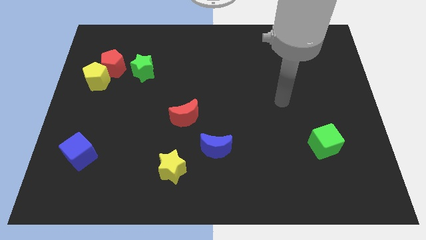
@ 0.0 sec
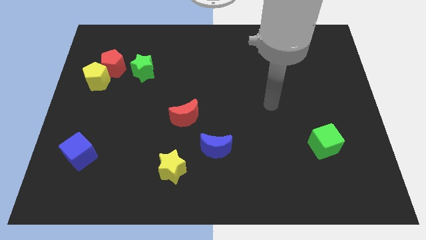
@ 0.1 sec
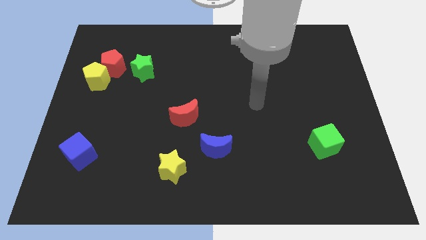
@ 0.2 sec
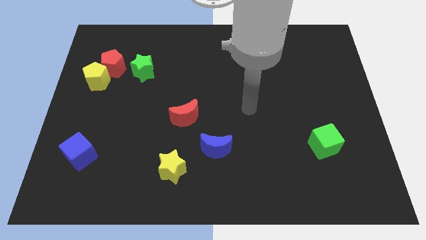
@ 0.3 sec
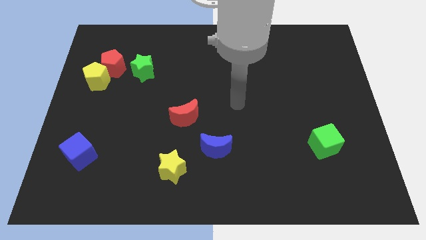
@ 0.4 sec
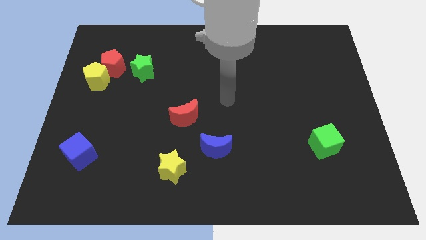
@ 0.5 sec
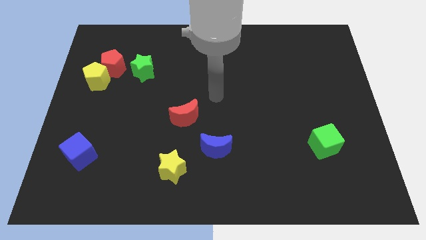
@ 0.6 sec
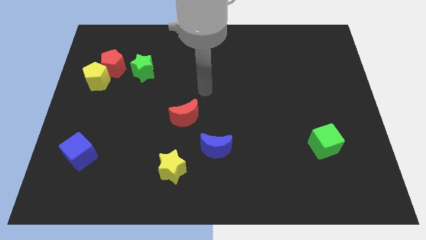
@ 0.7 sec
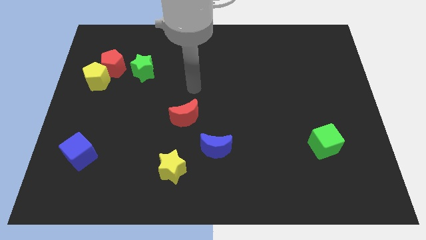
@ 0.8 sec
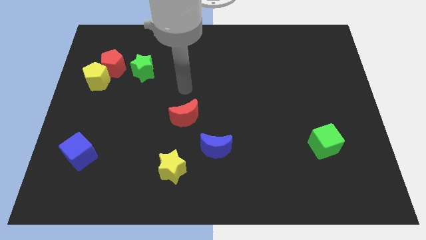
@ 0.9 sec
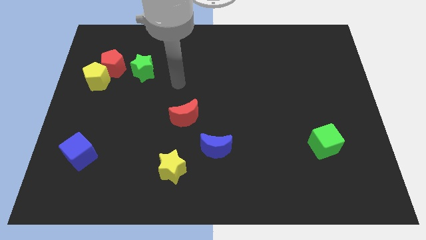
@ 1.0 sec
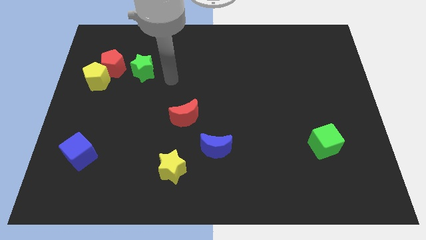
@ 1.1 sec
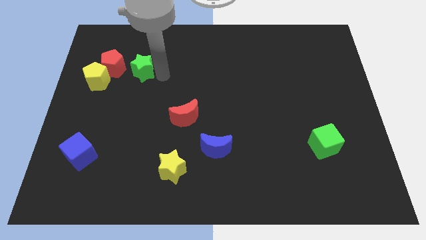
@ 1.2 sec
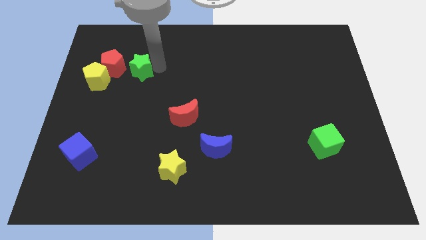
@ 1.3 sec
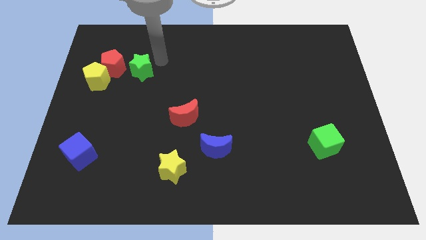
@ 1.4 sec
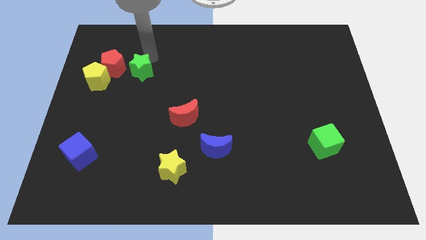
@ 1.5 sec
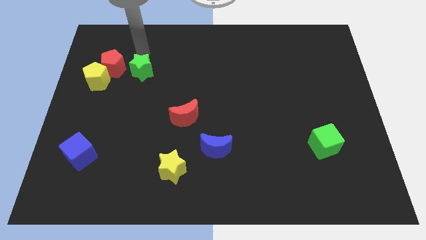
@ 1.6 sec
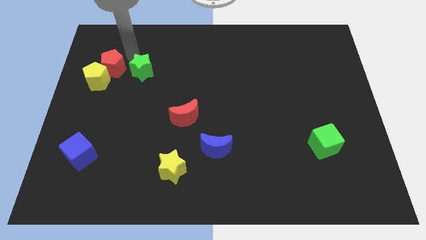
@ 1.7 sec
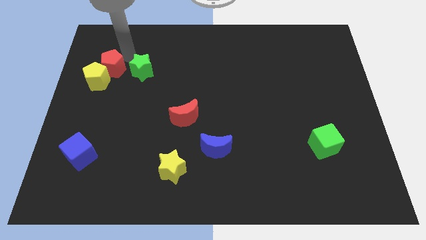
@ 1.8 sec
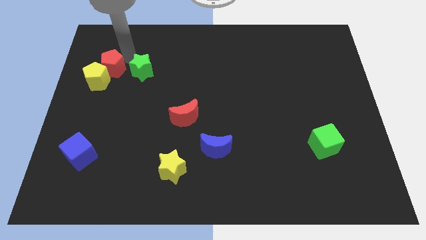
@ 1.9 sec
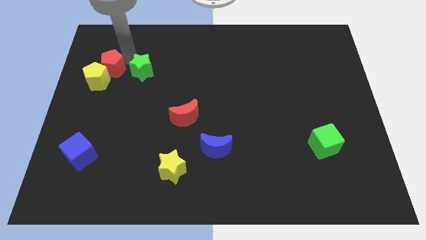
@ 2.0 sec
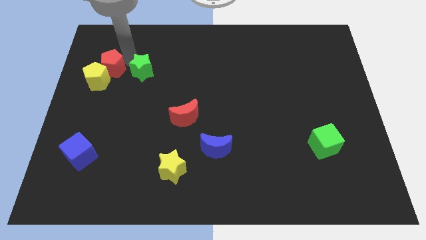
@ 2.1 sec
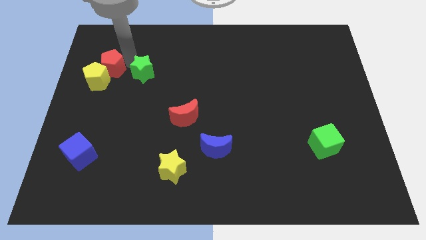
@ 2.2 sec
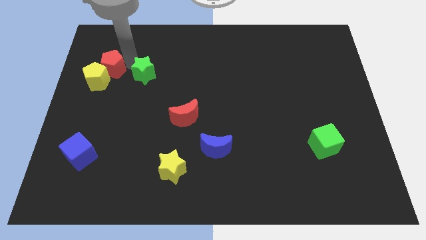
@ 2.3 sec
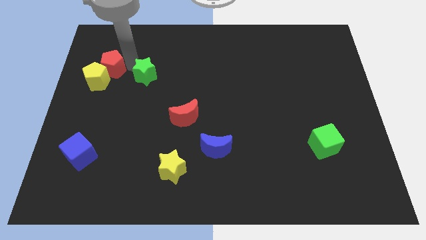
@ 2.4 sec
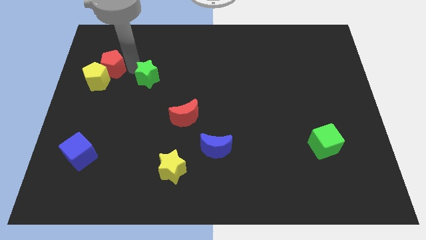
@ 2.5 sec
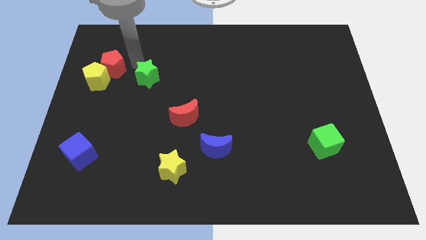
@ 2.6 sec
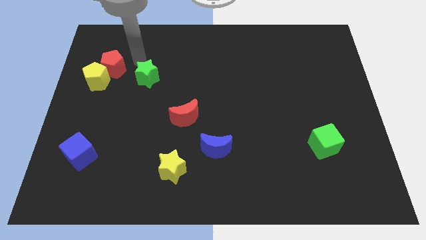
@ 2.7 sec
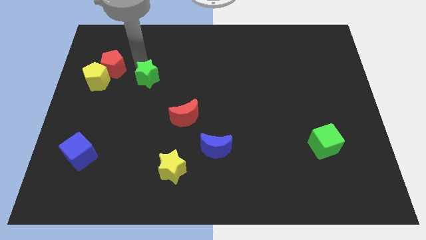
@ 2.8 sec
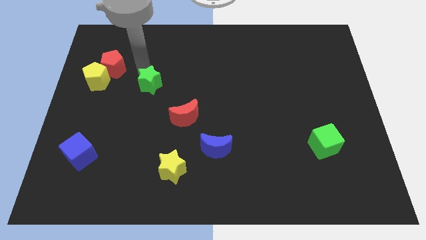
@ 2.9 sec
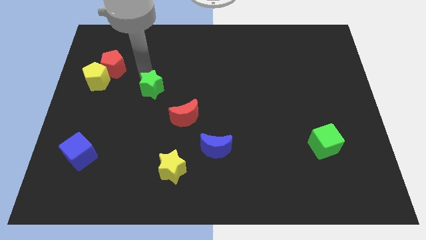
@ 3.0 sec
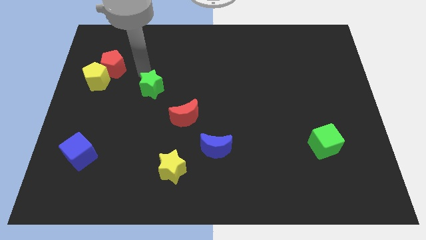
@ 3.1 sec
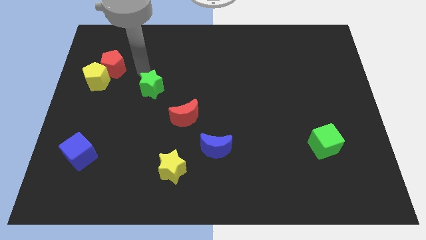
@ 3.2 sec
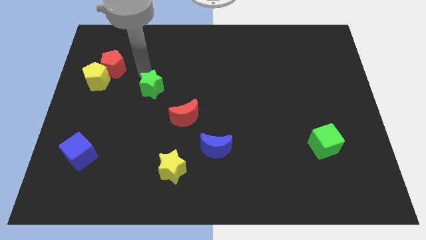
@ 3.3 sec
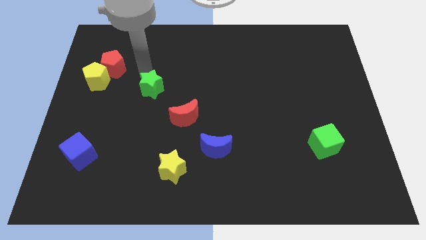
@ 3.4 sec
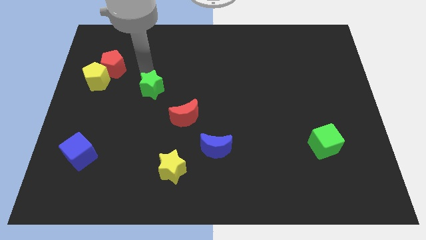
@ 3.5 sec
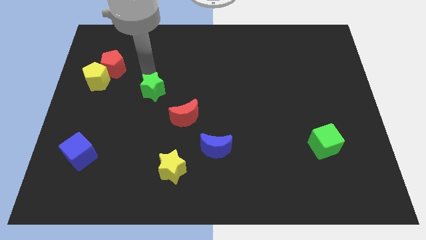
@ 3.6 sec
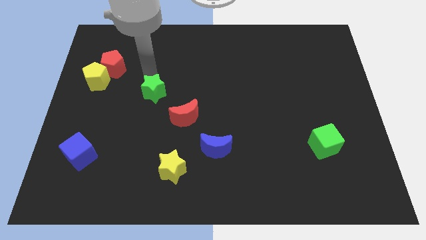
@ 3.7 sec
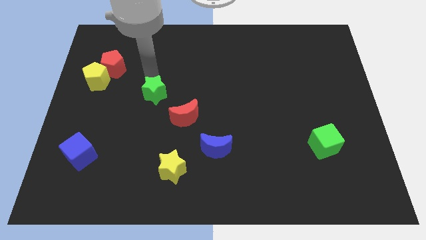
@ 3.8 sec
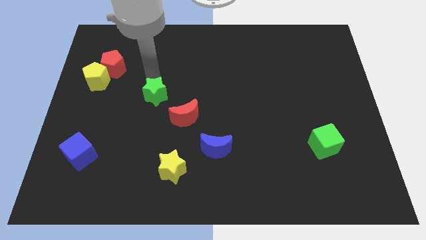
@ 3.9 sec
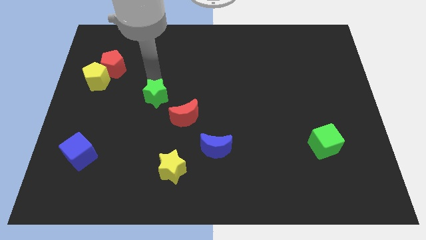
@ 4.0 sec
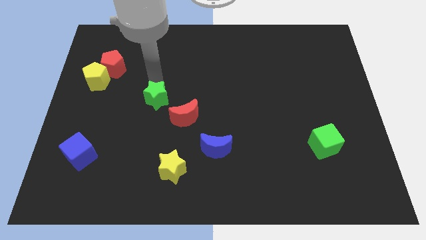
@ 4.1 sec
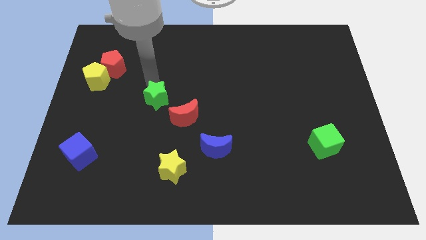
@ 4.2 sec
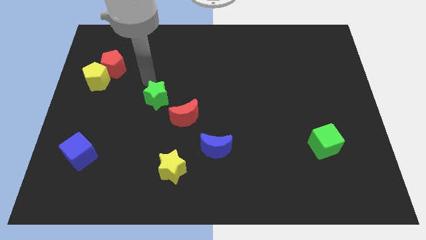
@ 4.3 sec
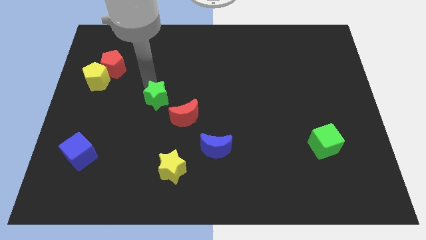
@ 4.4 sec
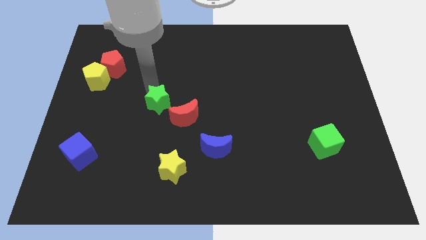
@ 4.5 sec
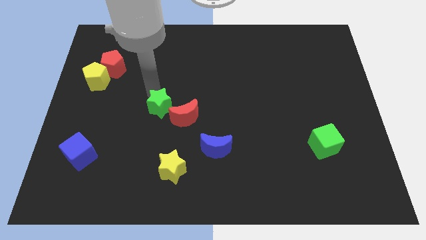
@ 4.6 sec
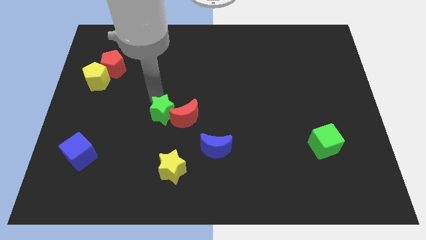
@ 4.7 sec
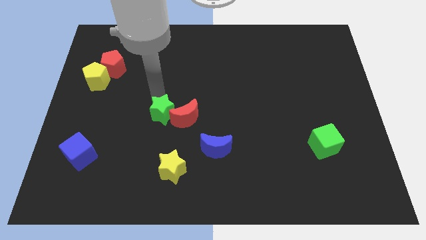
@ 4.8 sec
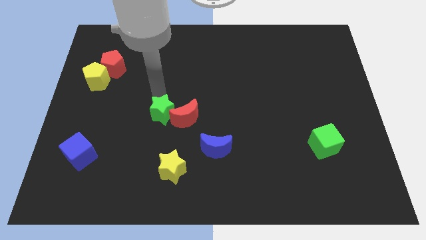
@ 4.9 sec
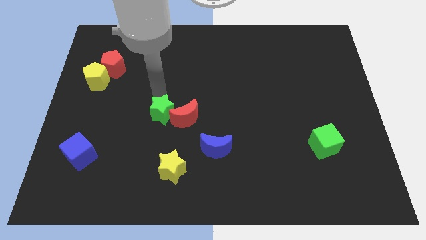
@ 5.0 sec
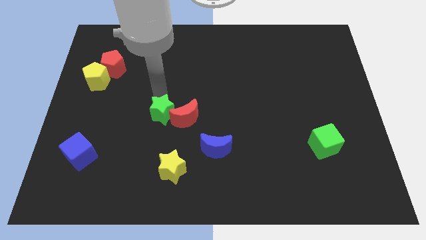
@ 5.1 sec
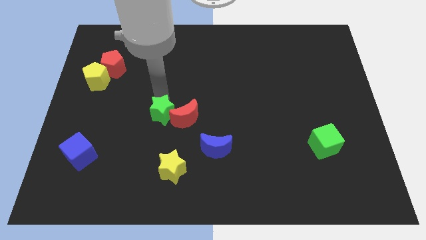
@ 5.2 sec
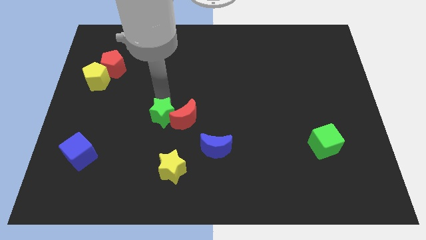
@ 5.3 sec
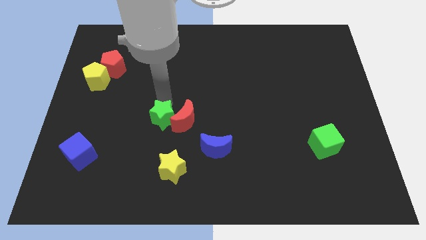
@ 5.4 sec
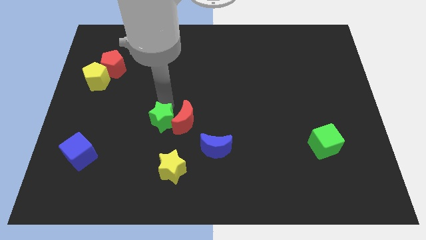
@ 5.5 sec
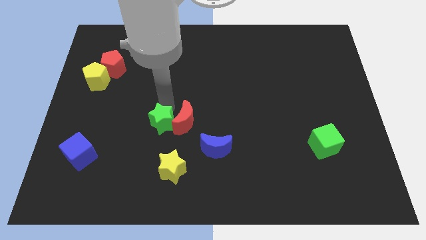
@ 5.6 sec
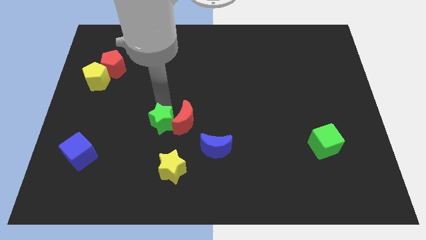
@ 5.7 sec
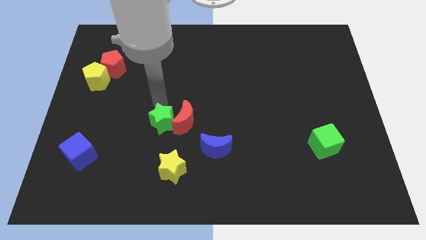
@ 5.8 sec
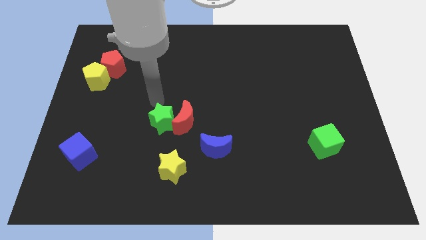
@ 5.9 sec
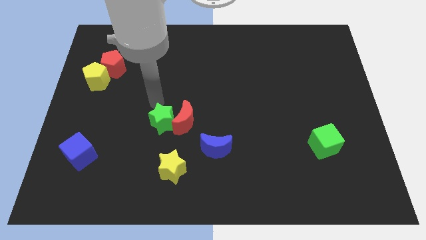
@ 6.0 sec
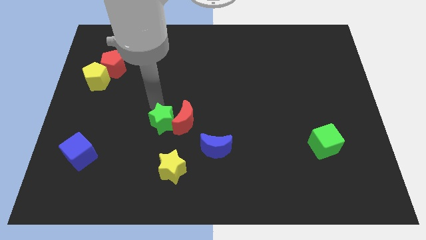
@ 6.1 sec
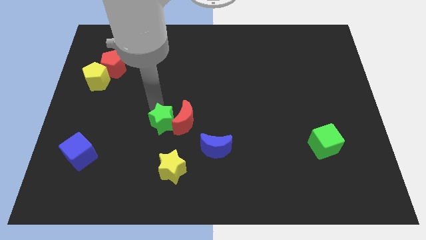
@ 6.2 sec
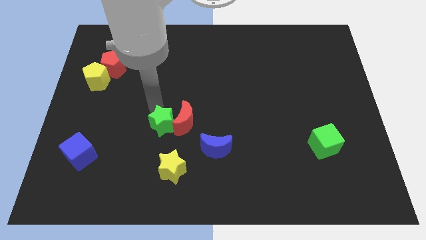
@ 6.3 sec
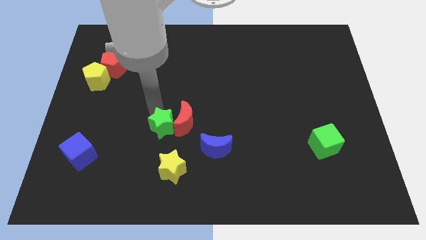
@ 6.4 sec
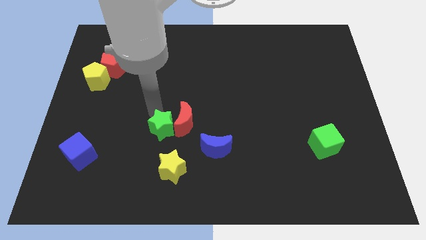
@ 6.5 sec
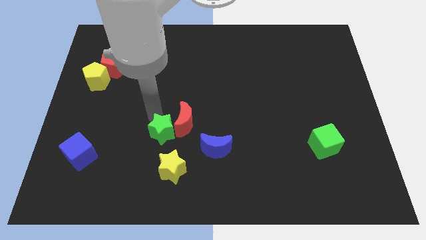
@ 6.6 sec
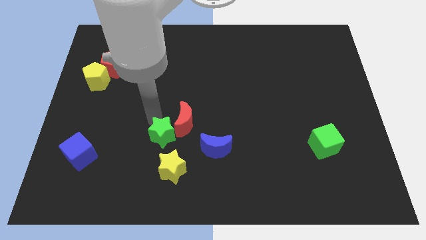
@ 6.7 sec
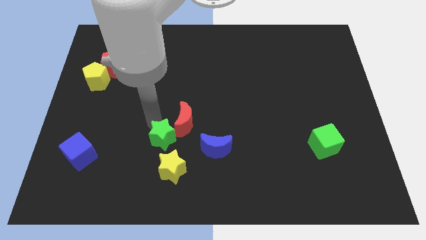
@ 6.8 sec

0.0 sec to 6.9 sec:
put the green star to the bottom of the red moon

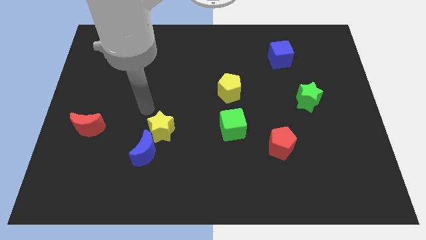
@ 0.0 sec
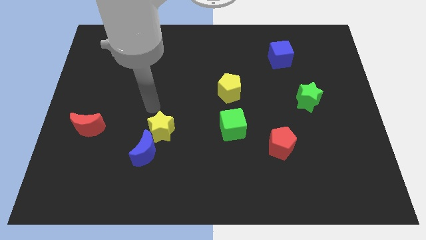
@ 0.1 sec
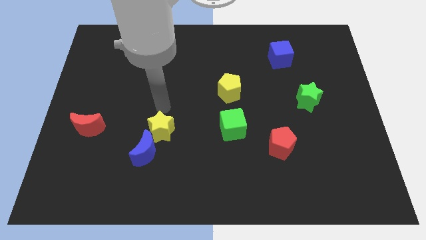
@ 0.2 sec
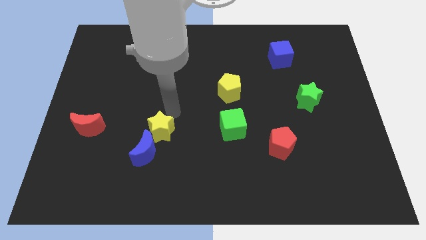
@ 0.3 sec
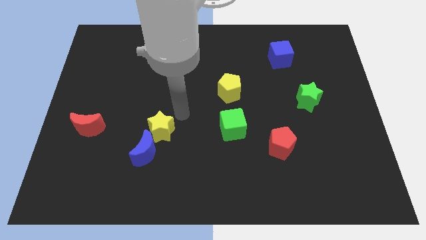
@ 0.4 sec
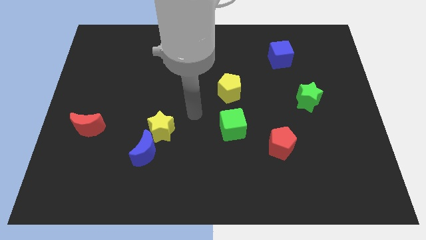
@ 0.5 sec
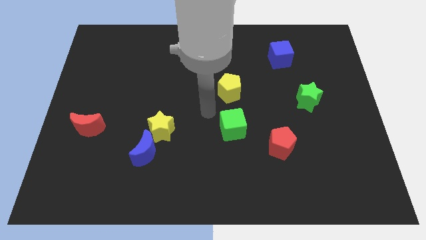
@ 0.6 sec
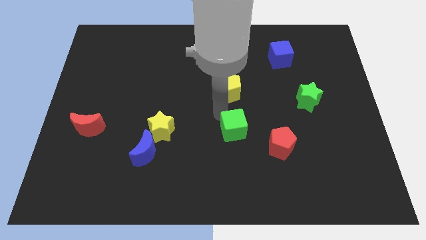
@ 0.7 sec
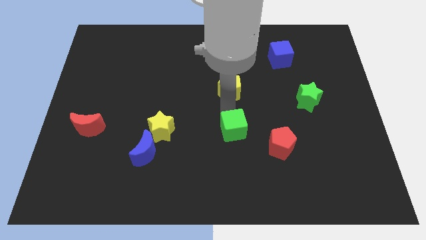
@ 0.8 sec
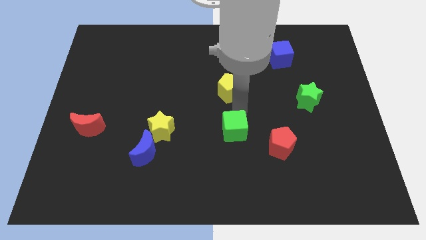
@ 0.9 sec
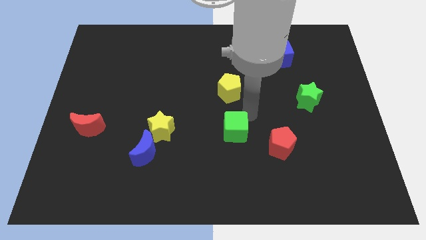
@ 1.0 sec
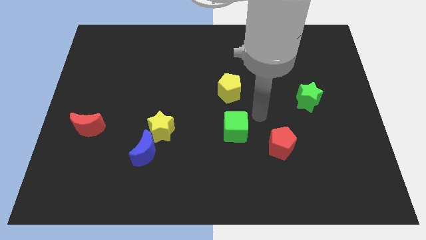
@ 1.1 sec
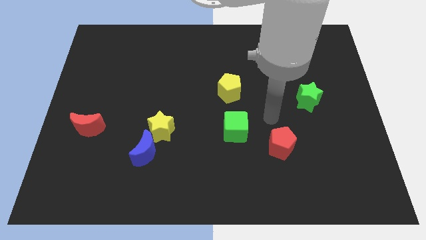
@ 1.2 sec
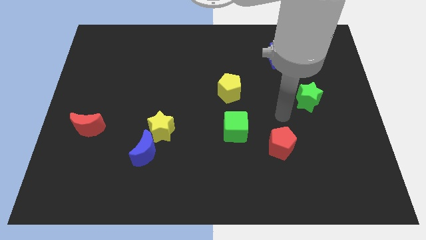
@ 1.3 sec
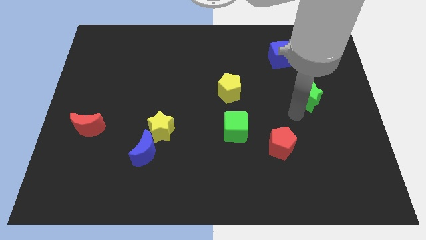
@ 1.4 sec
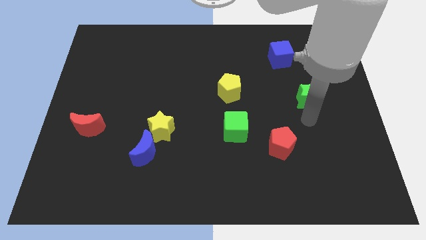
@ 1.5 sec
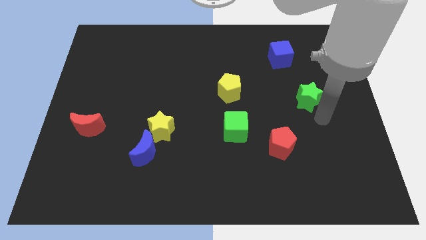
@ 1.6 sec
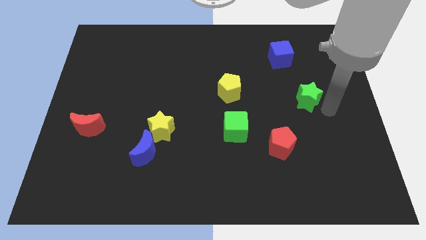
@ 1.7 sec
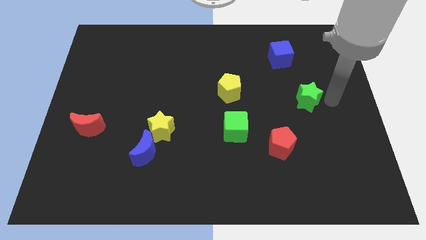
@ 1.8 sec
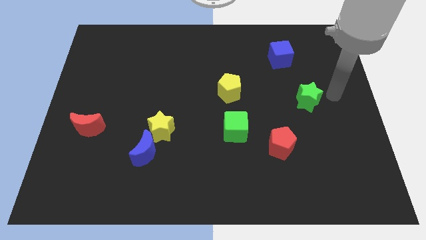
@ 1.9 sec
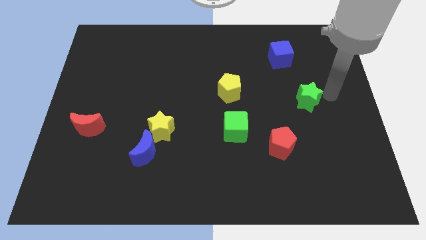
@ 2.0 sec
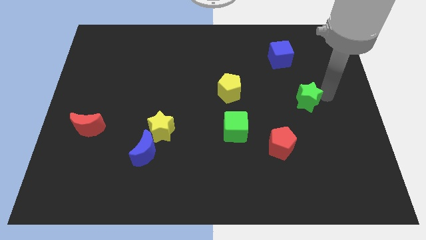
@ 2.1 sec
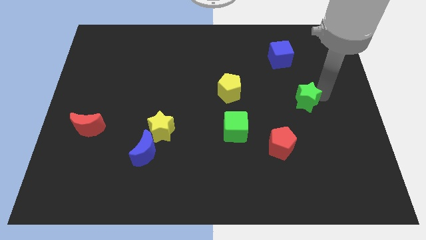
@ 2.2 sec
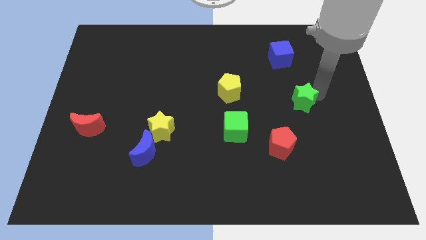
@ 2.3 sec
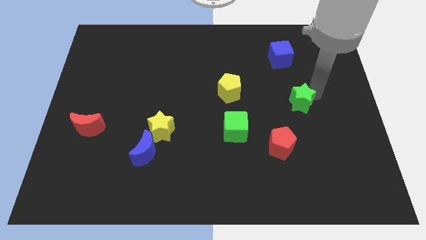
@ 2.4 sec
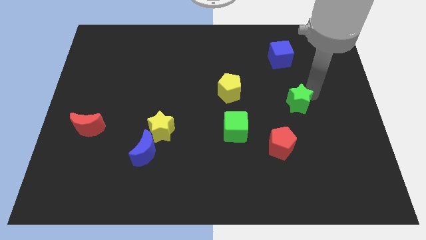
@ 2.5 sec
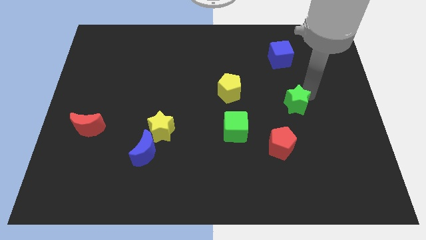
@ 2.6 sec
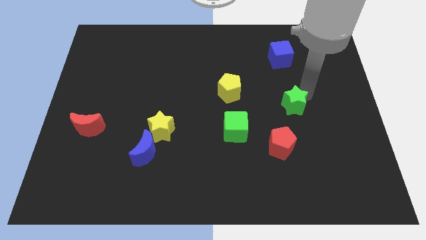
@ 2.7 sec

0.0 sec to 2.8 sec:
put the green star to the top side of the red pentagon
